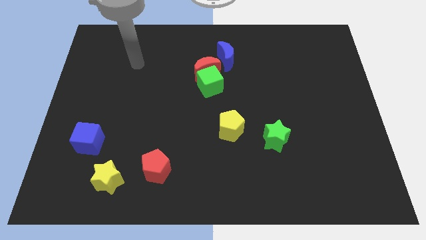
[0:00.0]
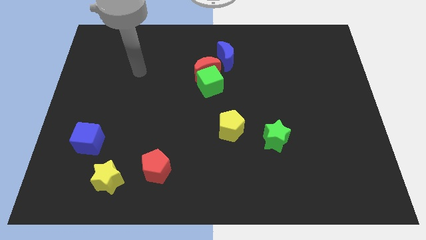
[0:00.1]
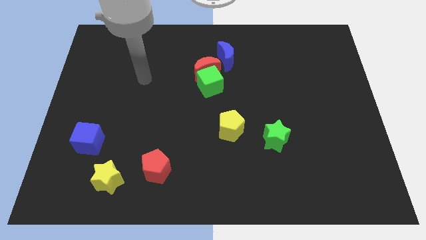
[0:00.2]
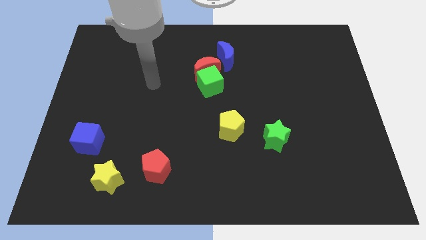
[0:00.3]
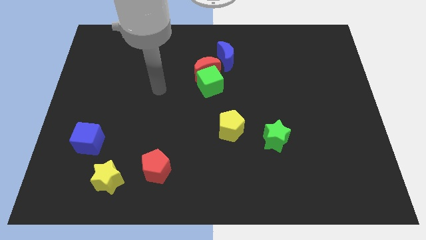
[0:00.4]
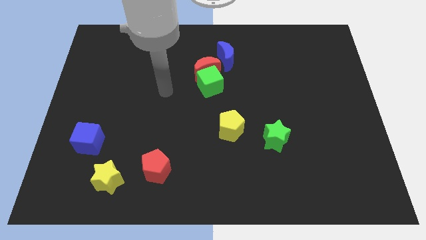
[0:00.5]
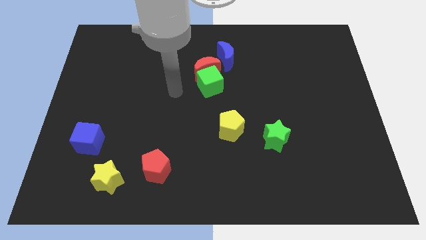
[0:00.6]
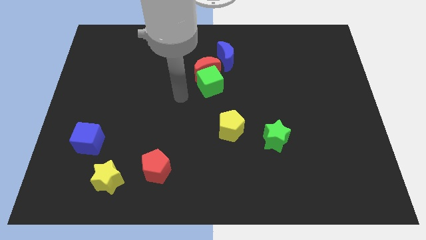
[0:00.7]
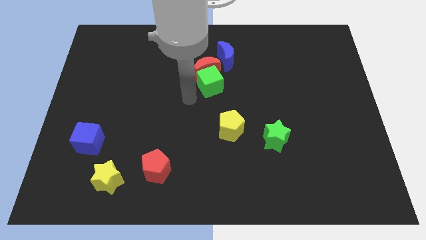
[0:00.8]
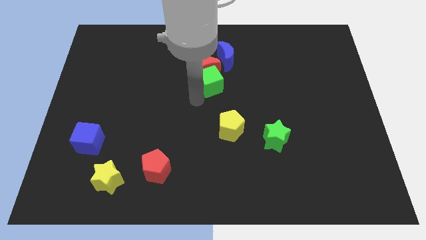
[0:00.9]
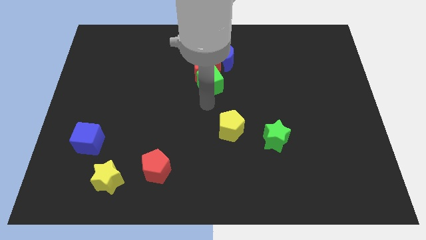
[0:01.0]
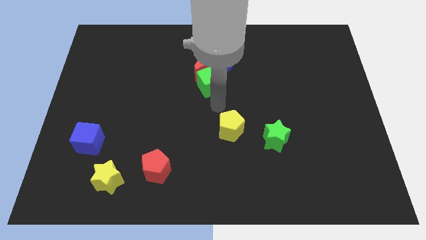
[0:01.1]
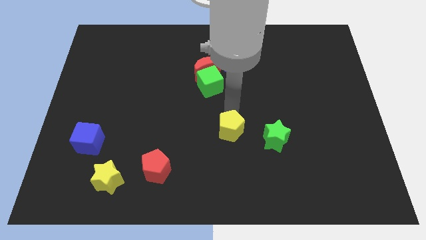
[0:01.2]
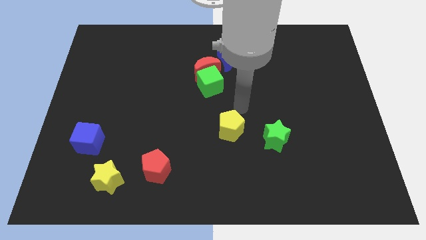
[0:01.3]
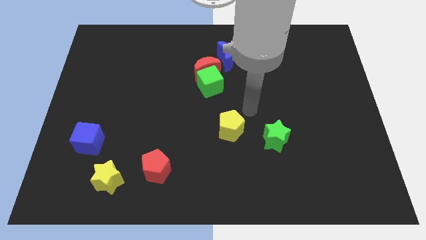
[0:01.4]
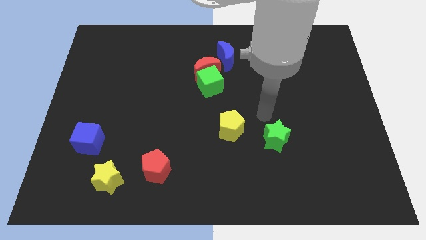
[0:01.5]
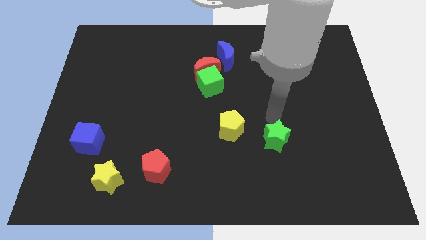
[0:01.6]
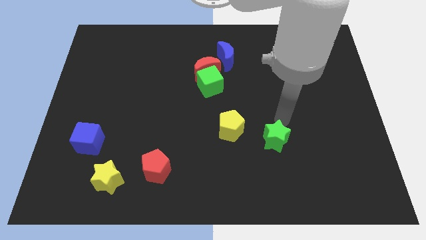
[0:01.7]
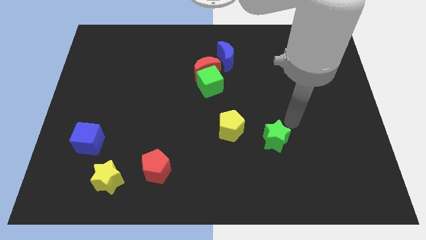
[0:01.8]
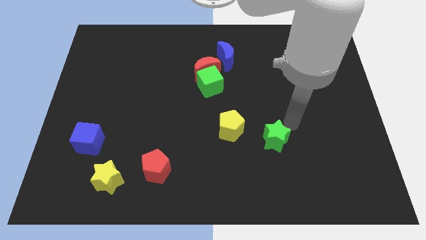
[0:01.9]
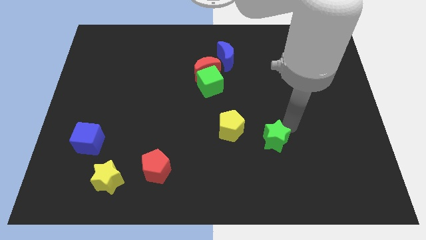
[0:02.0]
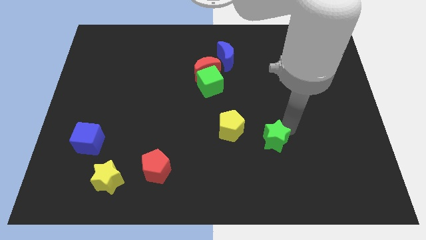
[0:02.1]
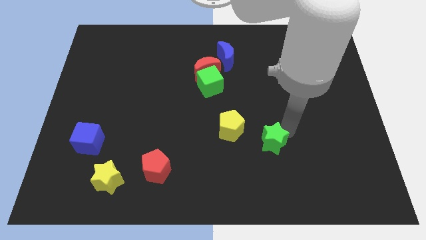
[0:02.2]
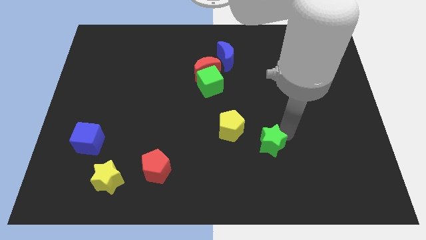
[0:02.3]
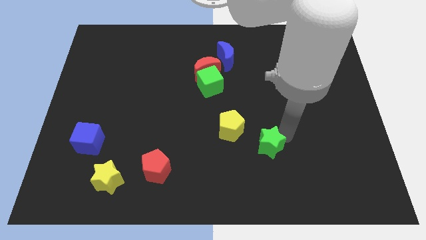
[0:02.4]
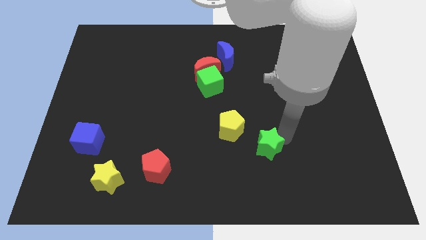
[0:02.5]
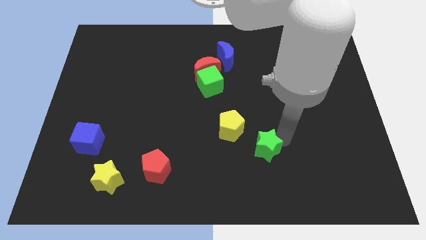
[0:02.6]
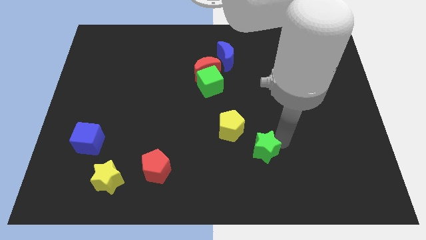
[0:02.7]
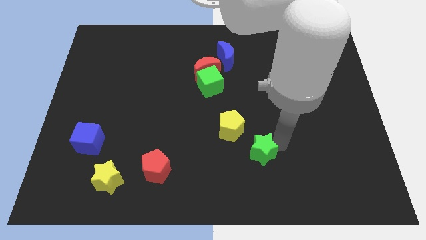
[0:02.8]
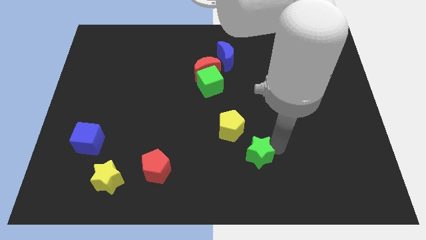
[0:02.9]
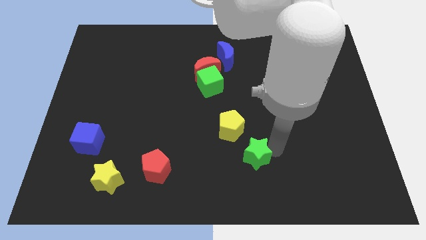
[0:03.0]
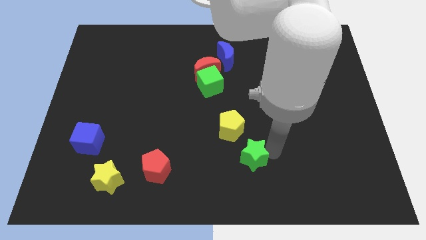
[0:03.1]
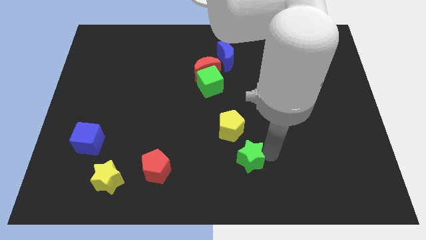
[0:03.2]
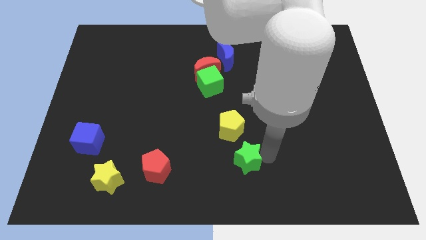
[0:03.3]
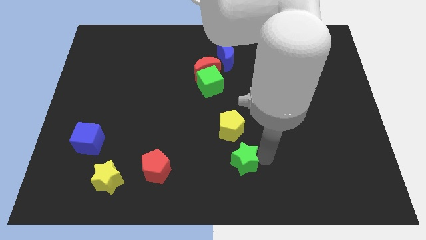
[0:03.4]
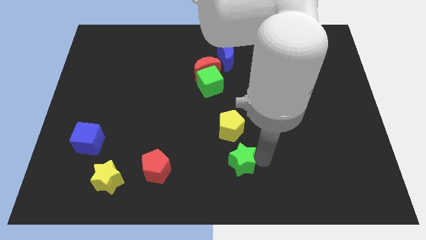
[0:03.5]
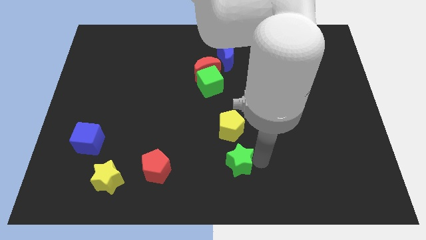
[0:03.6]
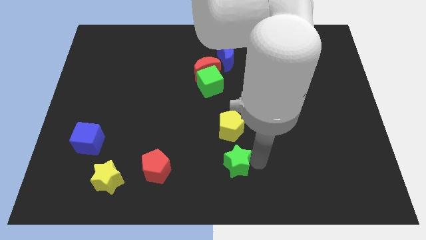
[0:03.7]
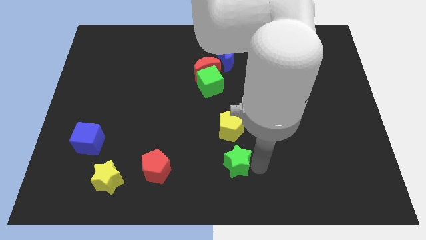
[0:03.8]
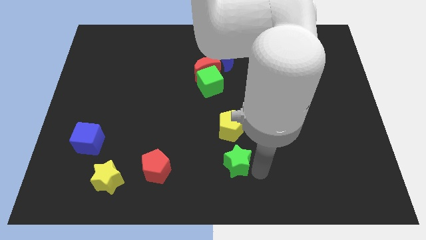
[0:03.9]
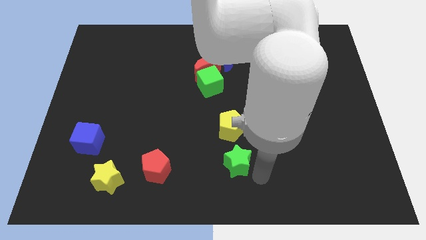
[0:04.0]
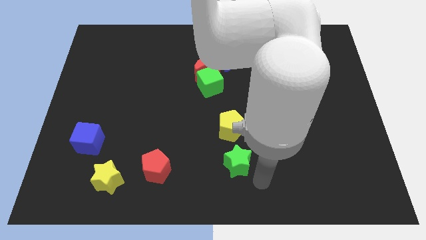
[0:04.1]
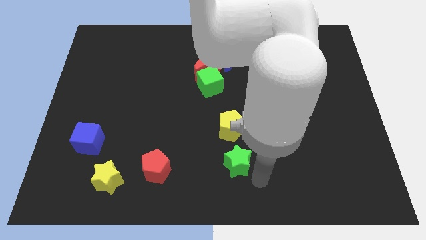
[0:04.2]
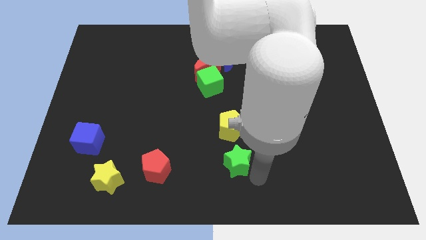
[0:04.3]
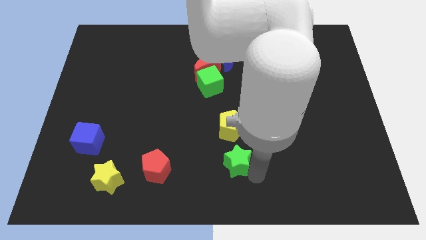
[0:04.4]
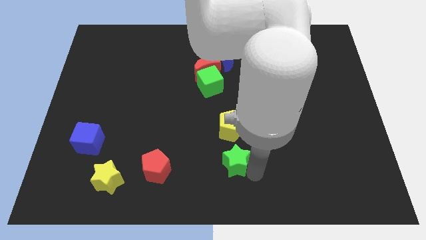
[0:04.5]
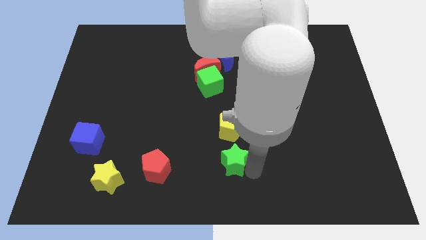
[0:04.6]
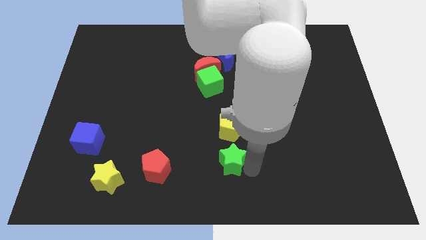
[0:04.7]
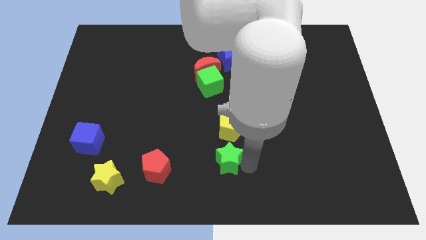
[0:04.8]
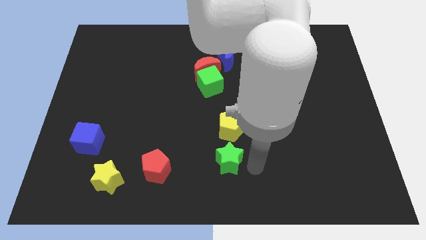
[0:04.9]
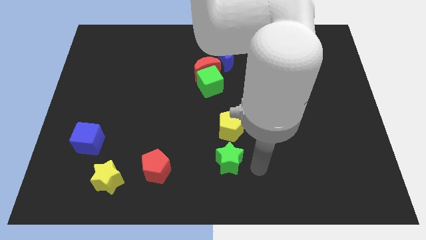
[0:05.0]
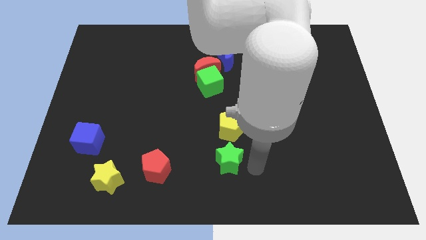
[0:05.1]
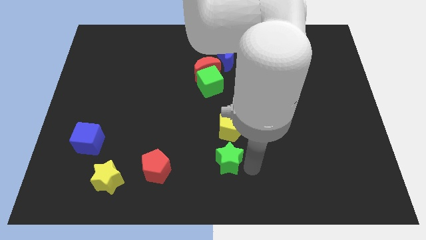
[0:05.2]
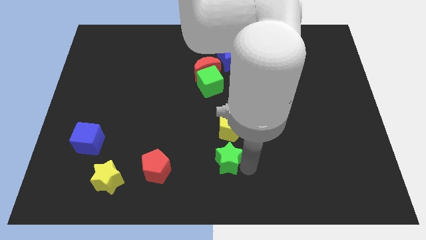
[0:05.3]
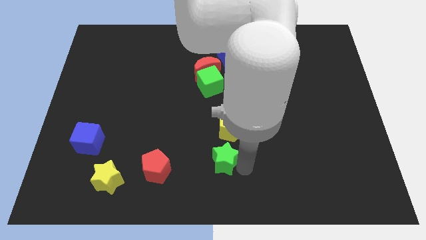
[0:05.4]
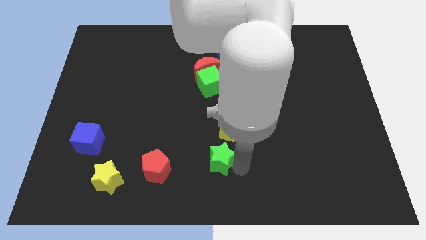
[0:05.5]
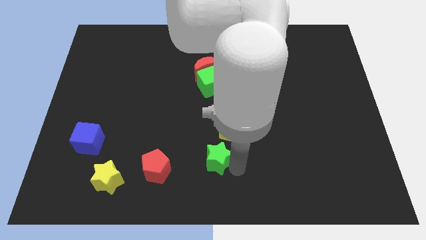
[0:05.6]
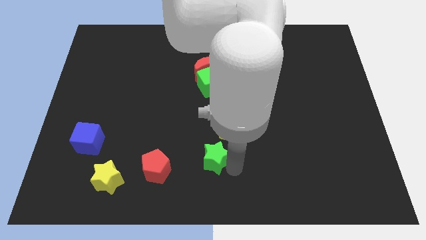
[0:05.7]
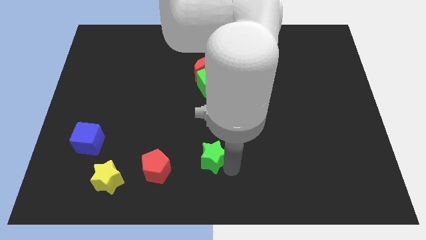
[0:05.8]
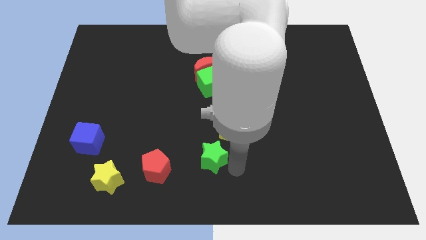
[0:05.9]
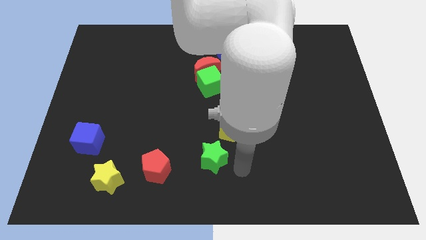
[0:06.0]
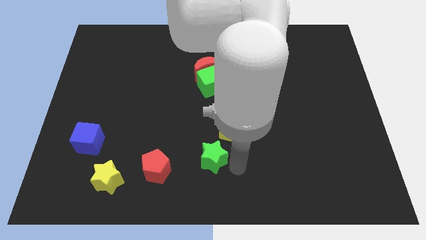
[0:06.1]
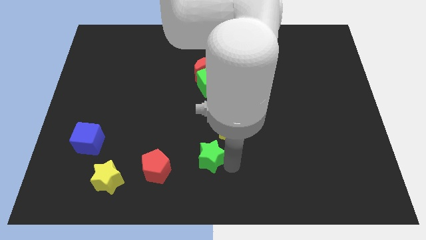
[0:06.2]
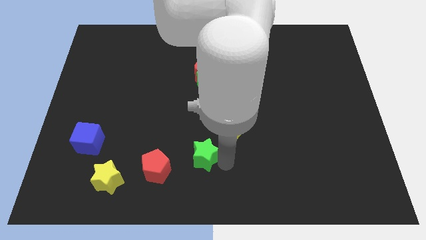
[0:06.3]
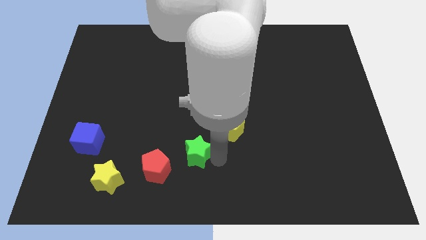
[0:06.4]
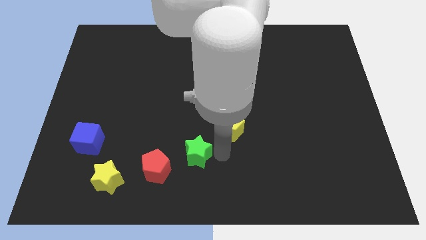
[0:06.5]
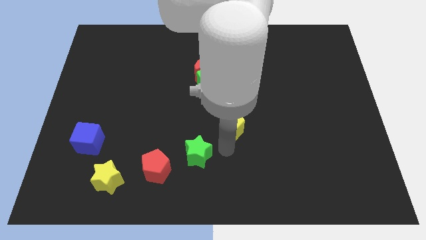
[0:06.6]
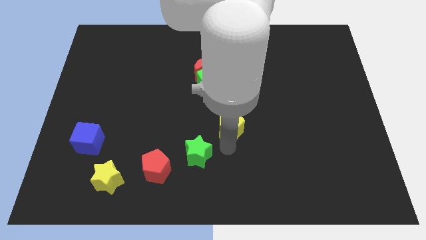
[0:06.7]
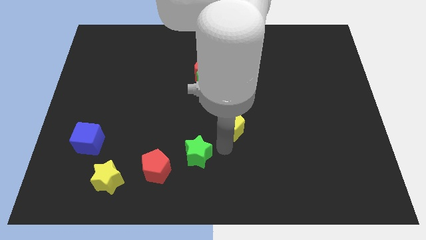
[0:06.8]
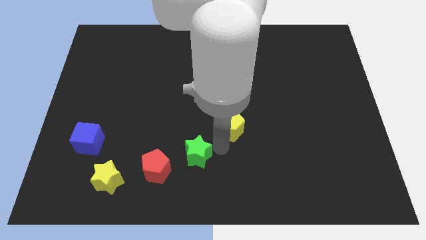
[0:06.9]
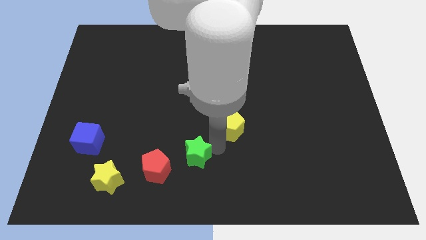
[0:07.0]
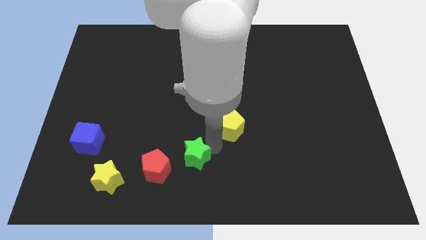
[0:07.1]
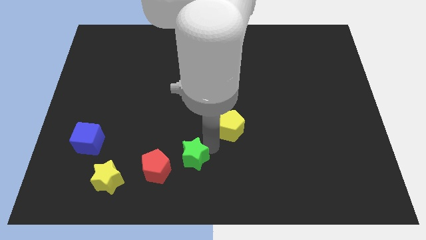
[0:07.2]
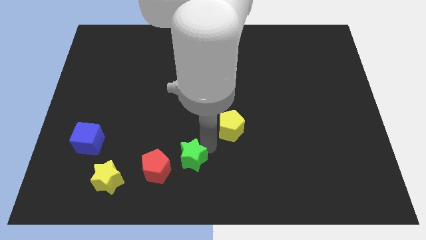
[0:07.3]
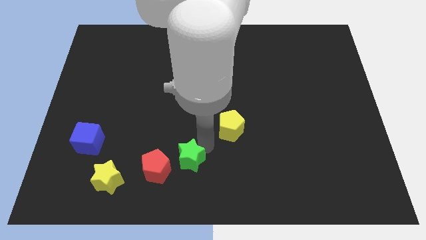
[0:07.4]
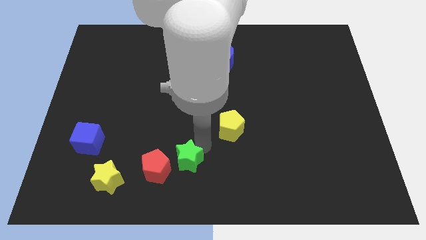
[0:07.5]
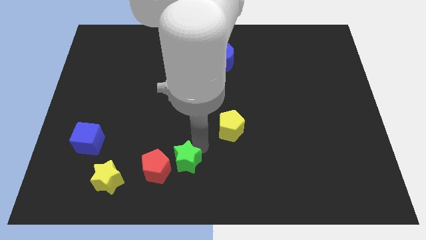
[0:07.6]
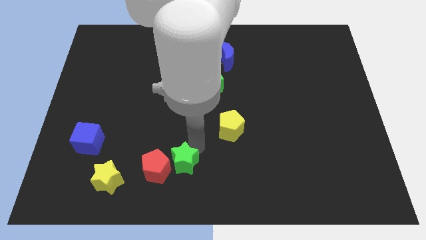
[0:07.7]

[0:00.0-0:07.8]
push the green star towards the red pentagon
